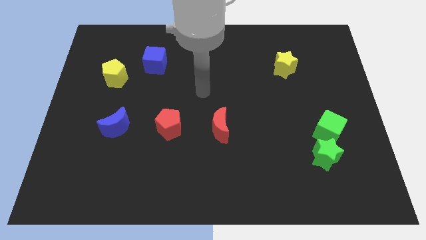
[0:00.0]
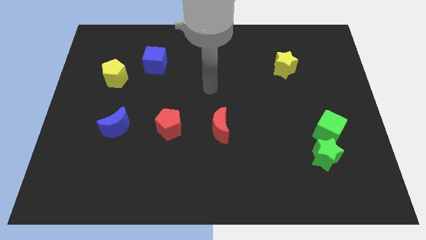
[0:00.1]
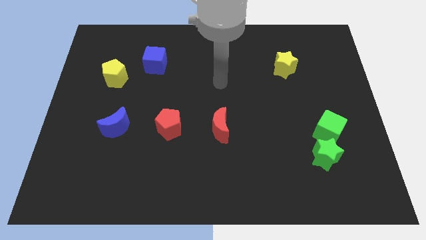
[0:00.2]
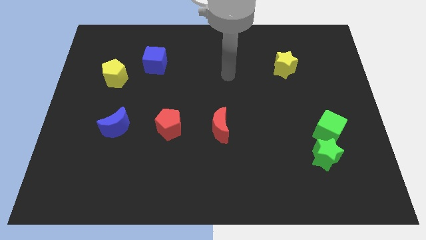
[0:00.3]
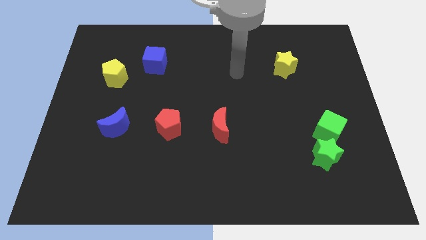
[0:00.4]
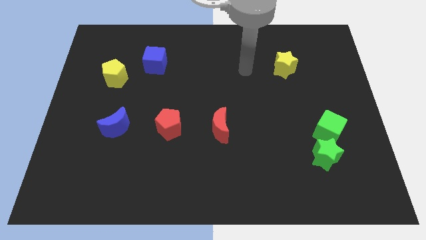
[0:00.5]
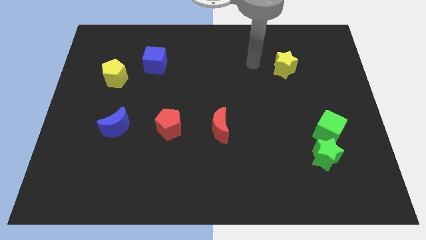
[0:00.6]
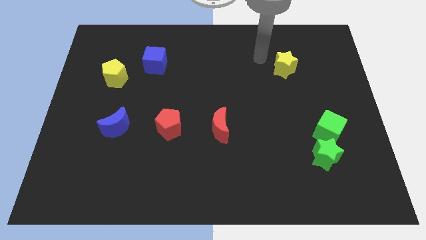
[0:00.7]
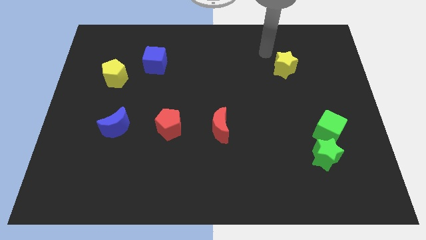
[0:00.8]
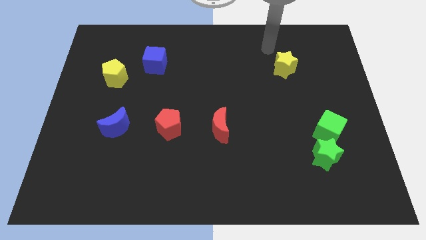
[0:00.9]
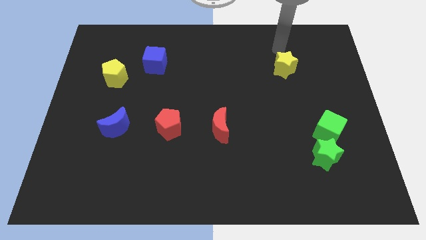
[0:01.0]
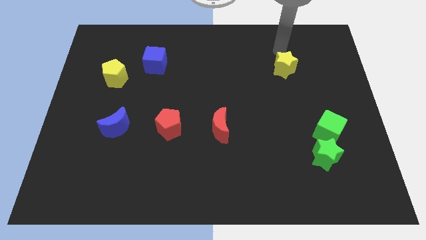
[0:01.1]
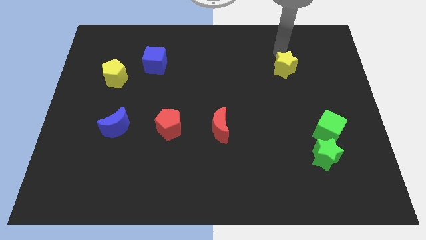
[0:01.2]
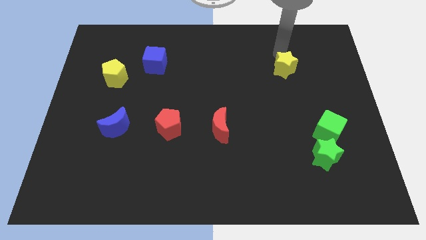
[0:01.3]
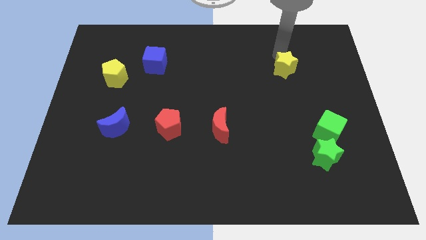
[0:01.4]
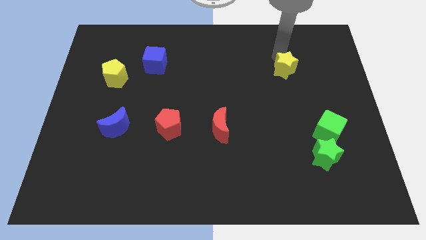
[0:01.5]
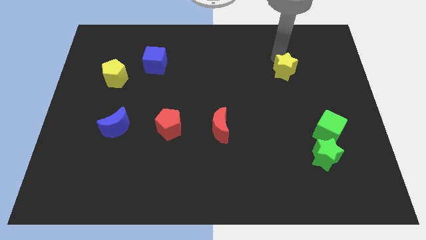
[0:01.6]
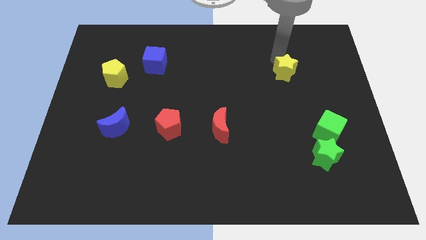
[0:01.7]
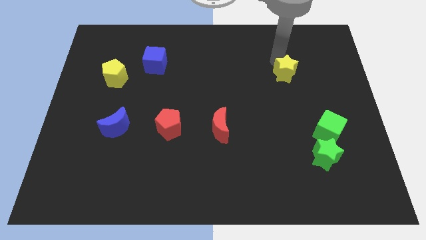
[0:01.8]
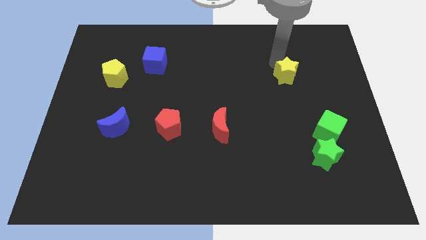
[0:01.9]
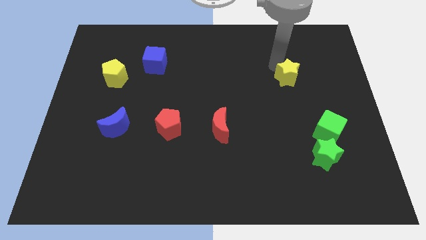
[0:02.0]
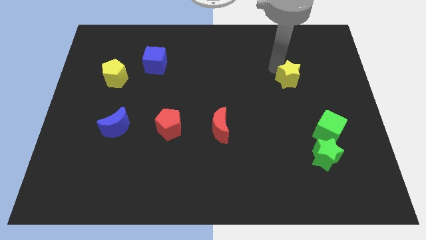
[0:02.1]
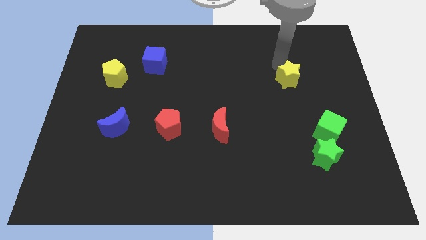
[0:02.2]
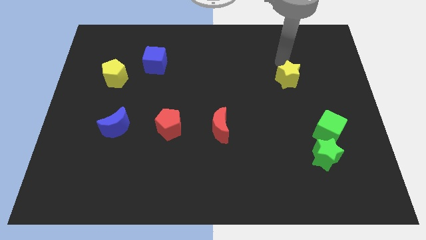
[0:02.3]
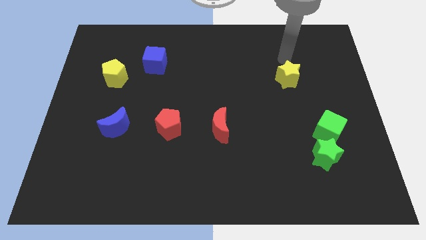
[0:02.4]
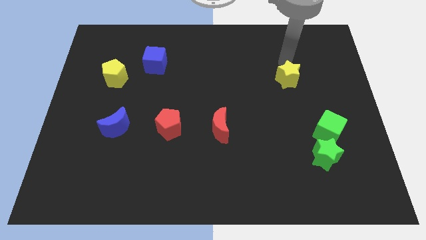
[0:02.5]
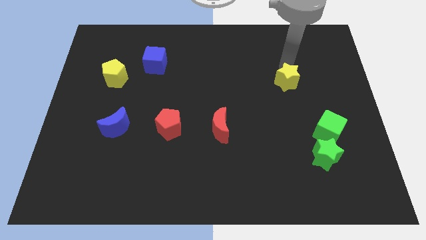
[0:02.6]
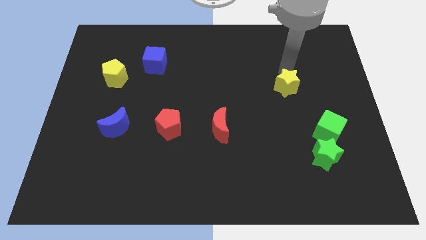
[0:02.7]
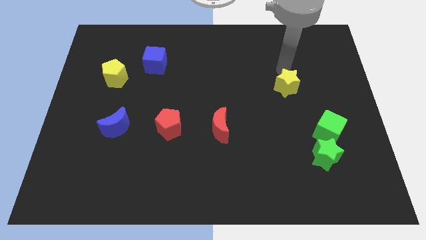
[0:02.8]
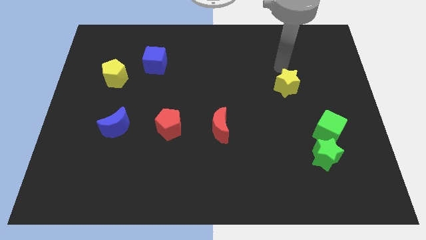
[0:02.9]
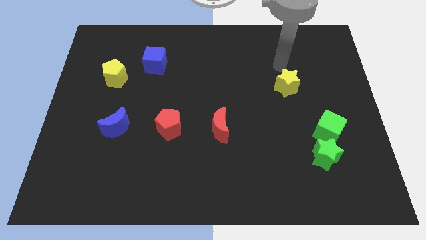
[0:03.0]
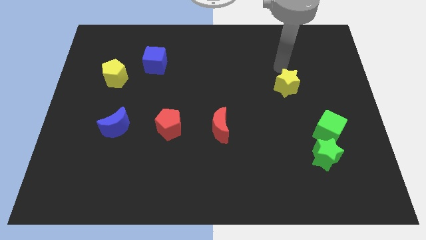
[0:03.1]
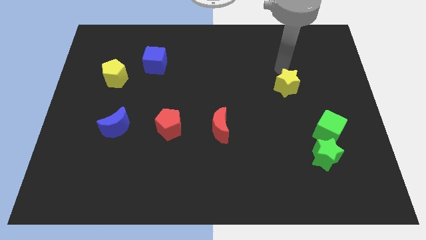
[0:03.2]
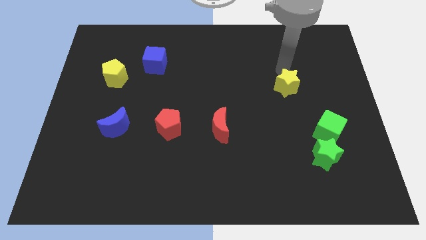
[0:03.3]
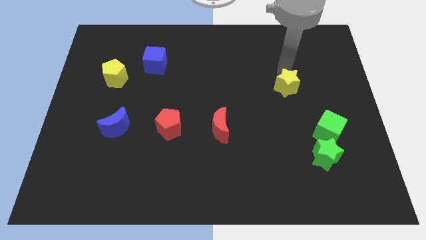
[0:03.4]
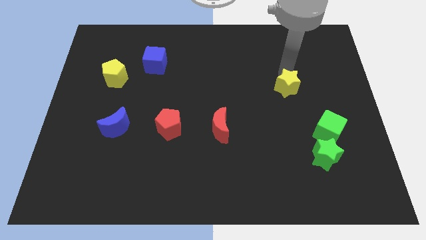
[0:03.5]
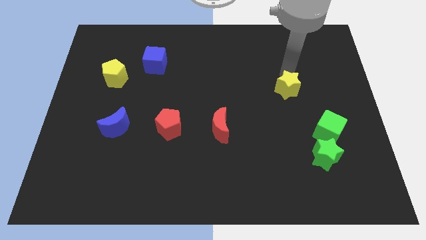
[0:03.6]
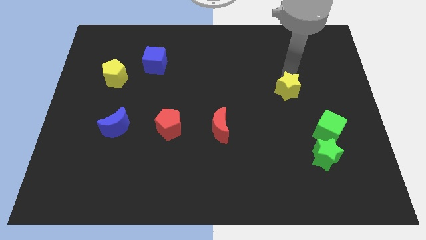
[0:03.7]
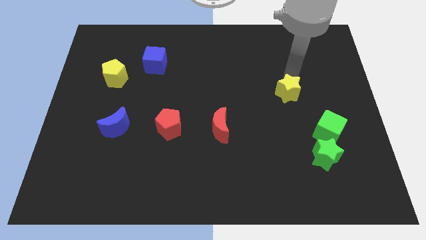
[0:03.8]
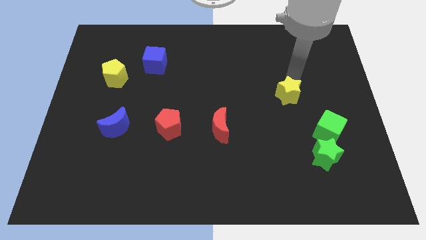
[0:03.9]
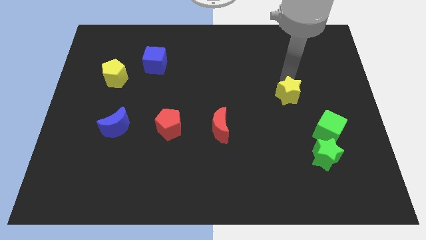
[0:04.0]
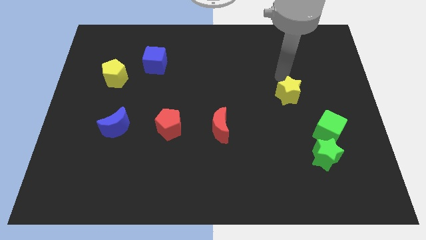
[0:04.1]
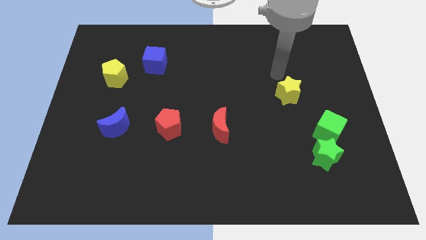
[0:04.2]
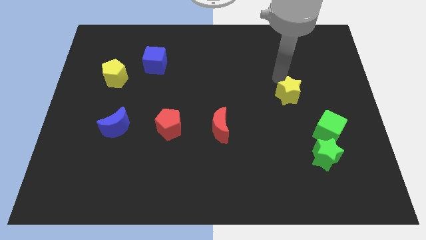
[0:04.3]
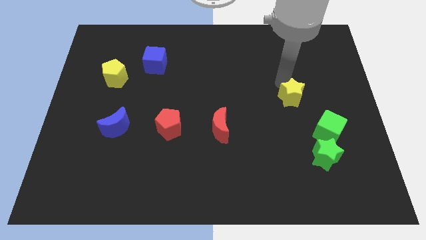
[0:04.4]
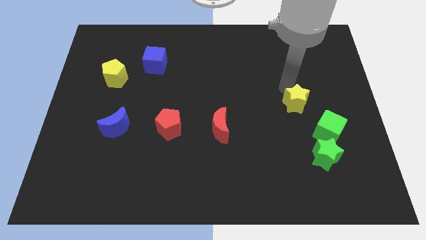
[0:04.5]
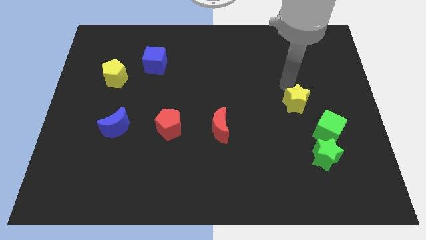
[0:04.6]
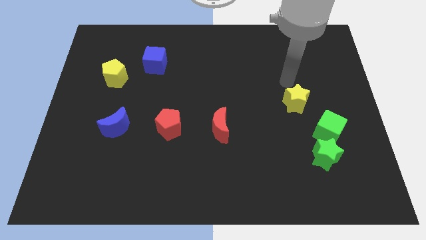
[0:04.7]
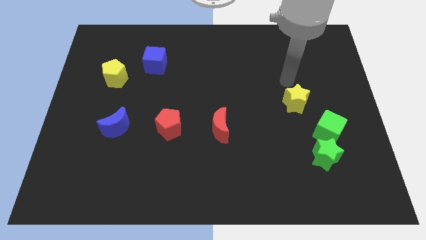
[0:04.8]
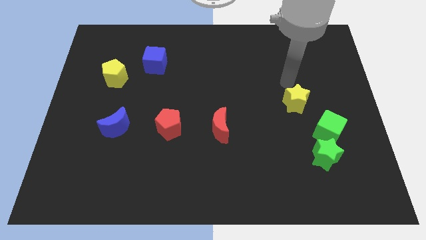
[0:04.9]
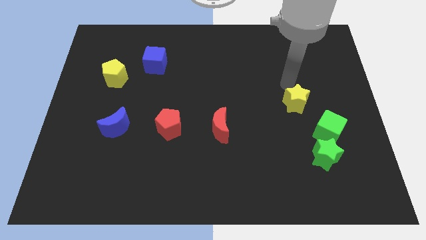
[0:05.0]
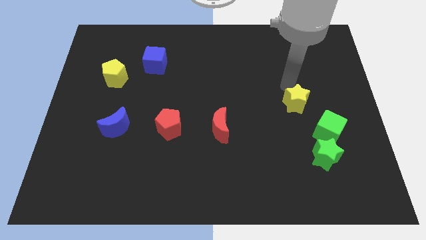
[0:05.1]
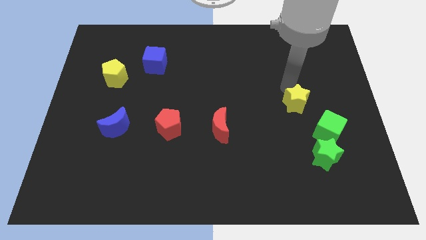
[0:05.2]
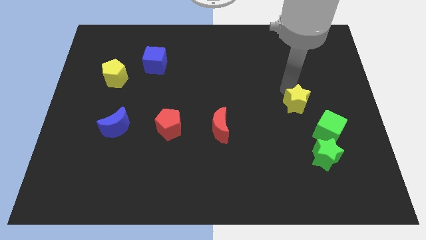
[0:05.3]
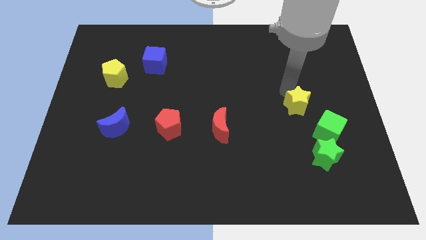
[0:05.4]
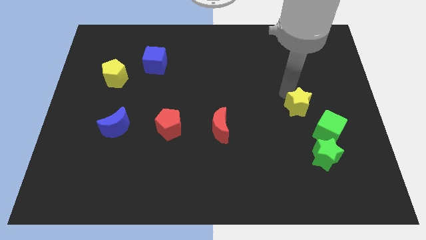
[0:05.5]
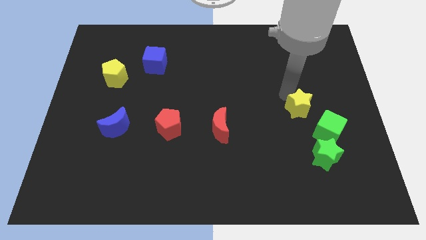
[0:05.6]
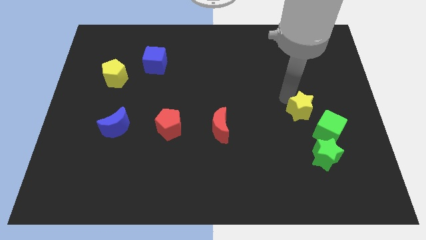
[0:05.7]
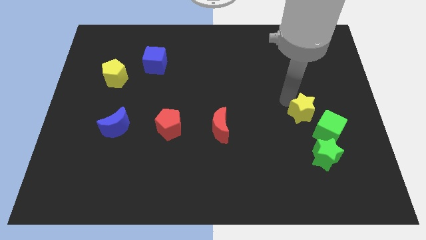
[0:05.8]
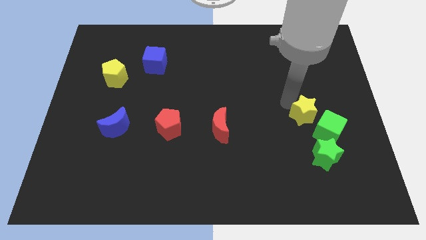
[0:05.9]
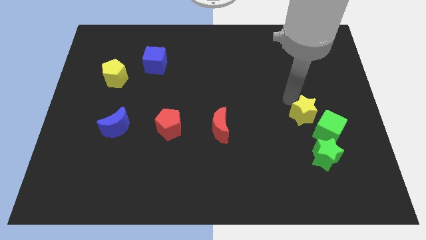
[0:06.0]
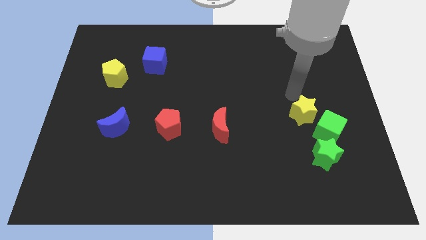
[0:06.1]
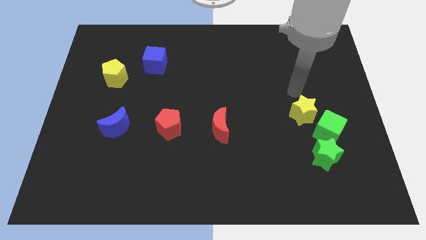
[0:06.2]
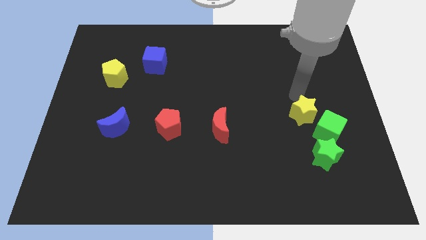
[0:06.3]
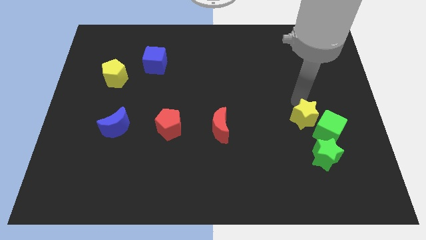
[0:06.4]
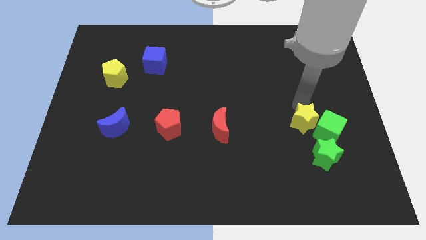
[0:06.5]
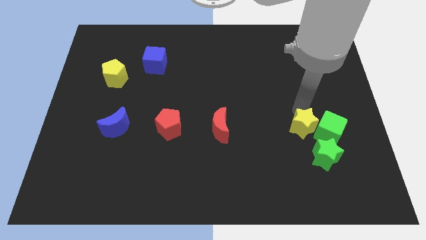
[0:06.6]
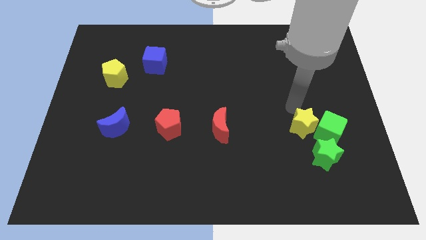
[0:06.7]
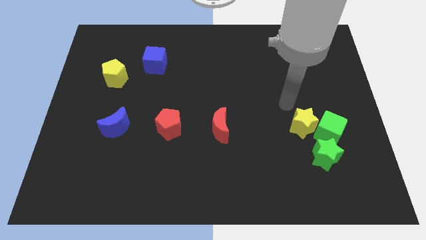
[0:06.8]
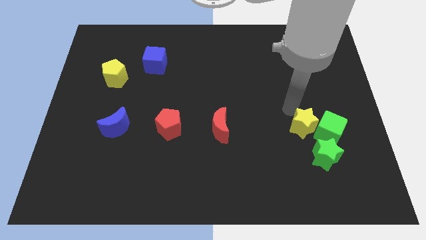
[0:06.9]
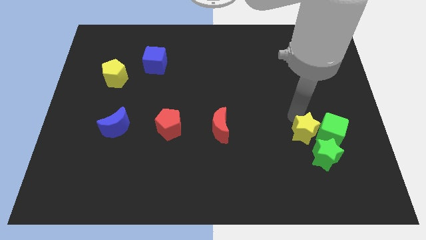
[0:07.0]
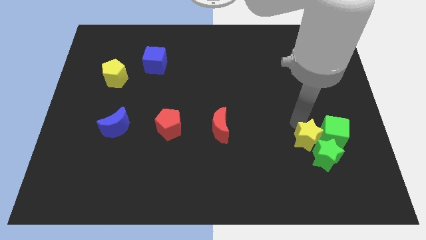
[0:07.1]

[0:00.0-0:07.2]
slide the yellow star to the green star
